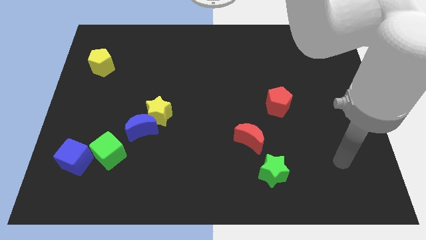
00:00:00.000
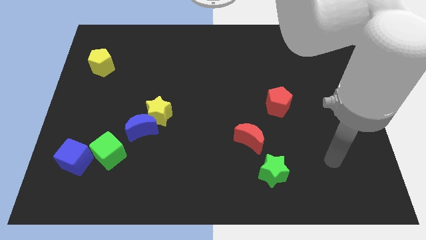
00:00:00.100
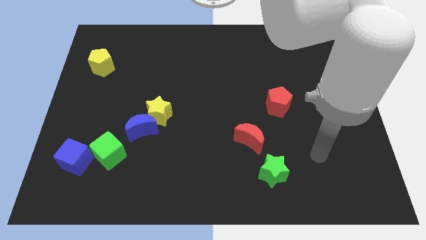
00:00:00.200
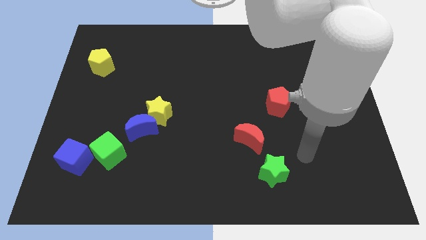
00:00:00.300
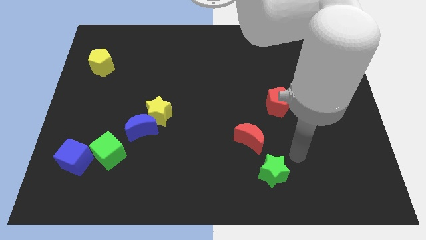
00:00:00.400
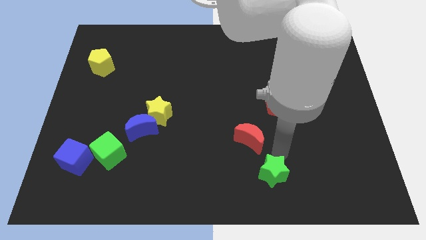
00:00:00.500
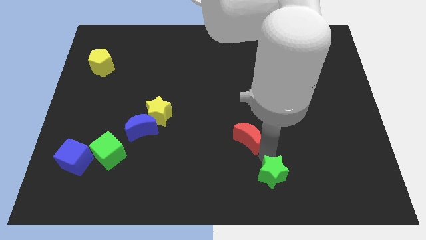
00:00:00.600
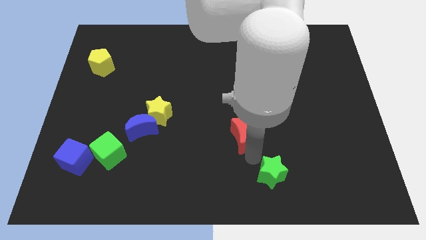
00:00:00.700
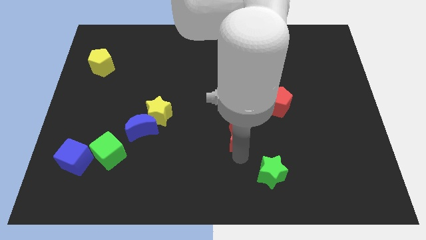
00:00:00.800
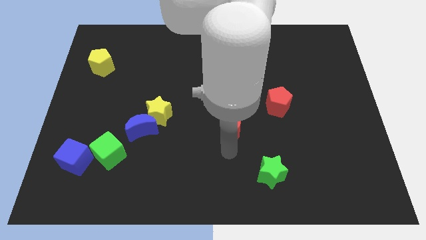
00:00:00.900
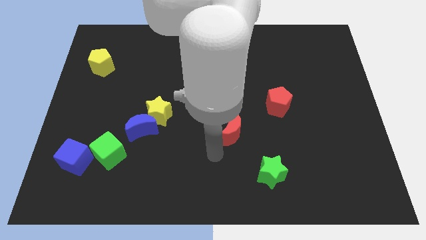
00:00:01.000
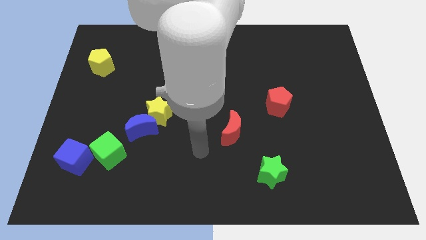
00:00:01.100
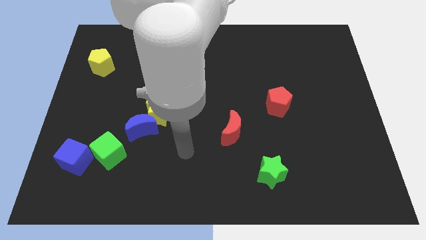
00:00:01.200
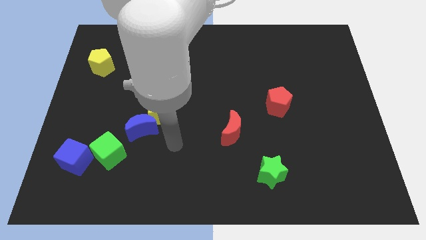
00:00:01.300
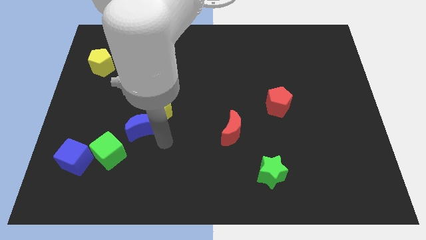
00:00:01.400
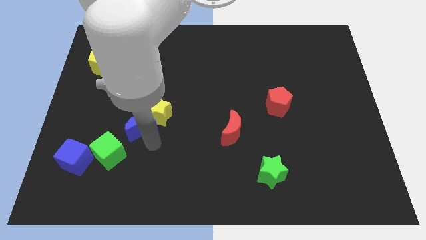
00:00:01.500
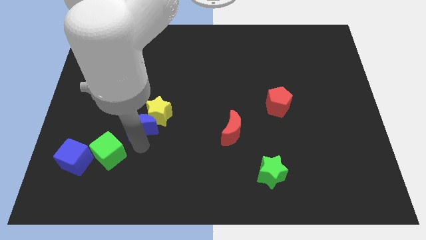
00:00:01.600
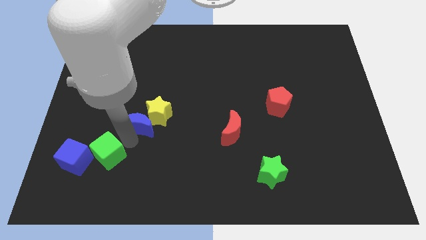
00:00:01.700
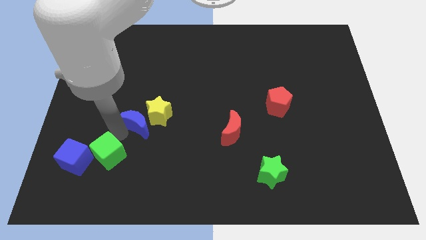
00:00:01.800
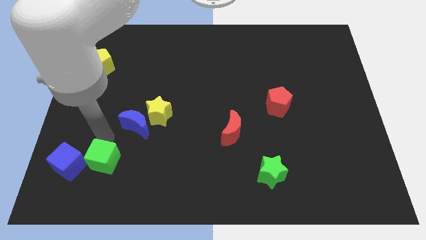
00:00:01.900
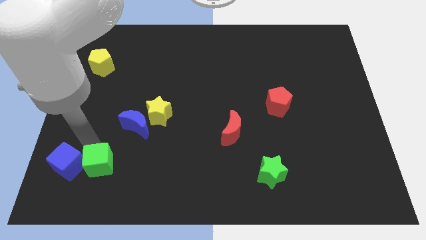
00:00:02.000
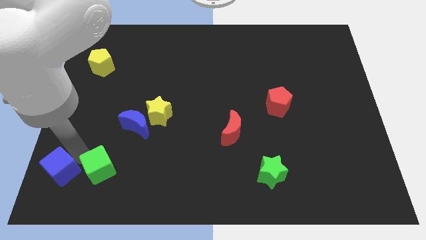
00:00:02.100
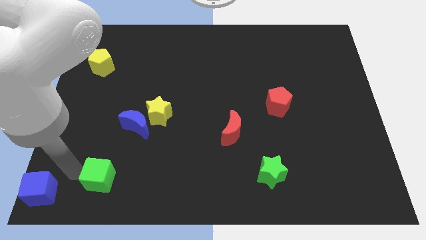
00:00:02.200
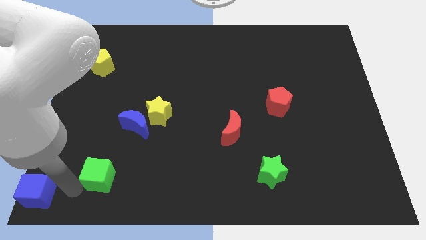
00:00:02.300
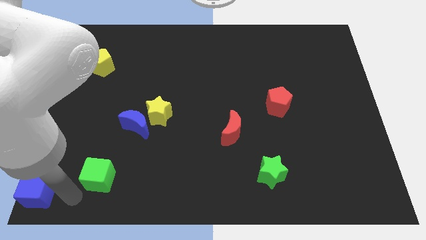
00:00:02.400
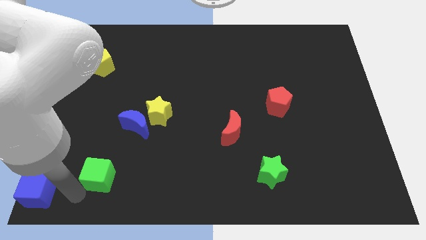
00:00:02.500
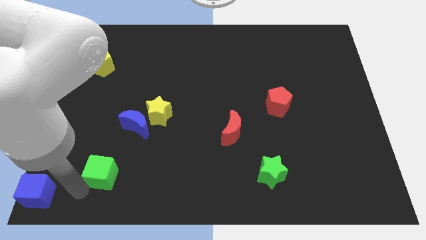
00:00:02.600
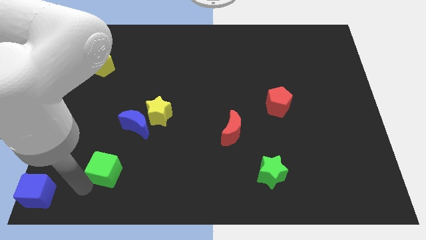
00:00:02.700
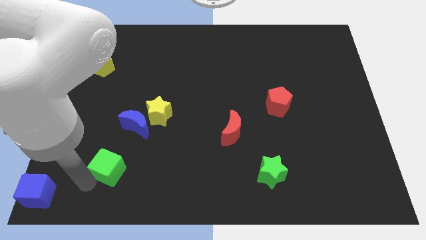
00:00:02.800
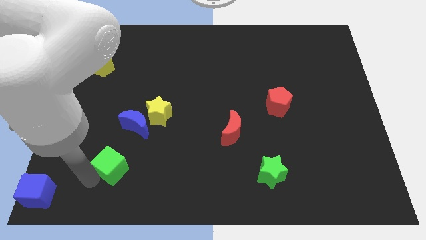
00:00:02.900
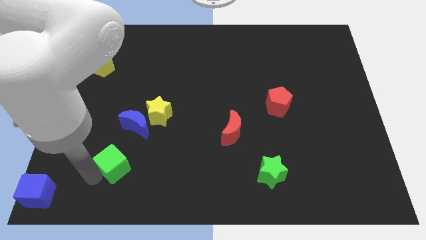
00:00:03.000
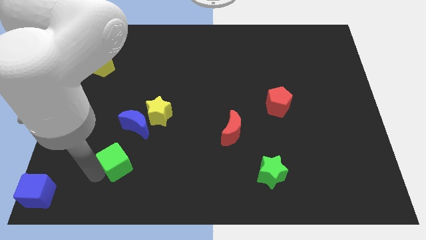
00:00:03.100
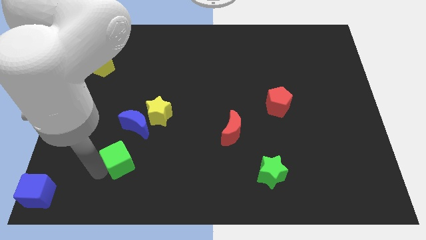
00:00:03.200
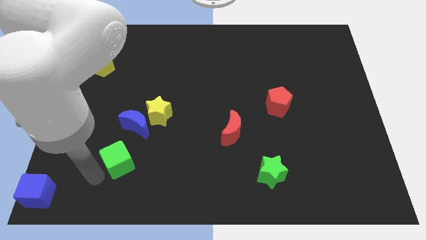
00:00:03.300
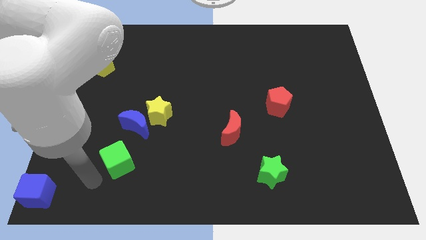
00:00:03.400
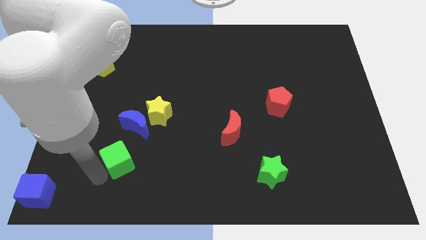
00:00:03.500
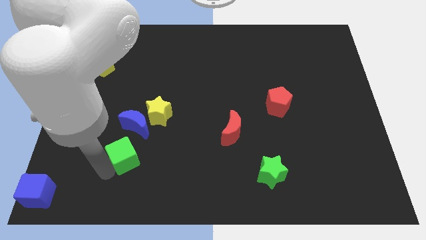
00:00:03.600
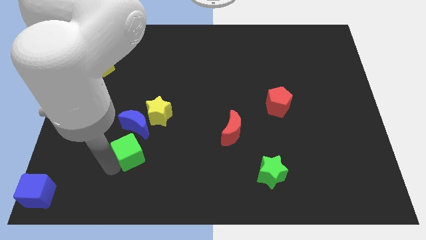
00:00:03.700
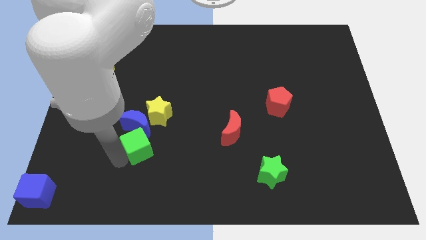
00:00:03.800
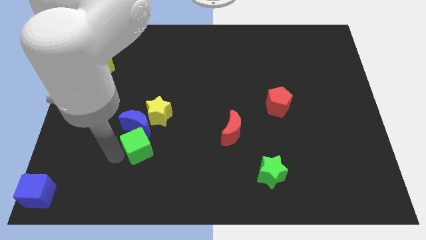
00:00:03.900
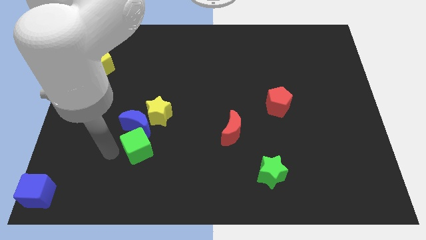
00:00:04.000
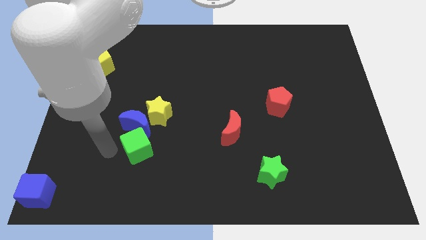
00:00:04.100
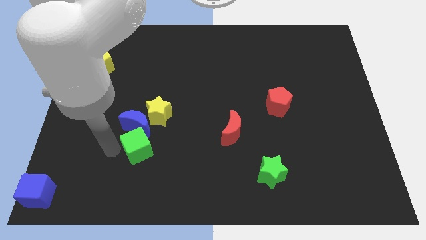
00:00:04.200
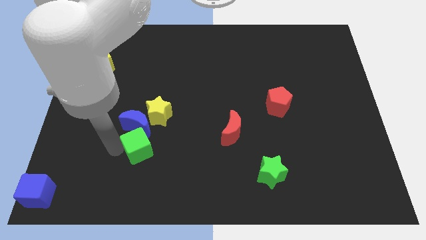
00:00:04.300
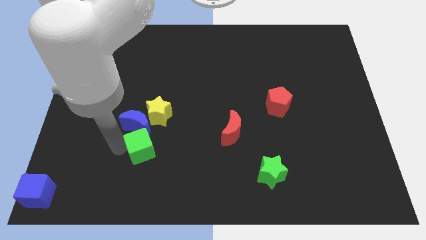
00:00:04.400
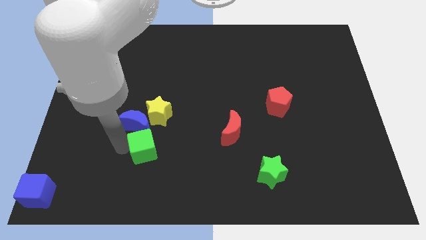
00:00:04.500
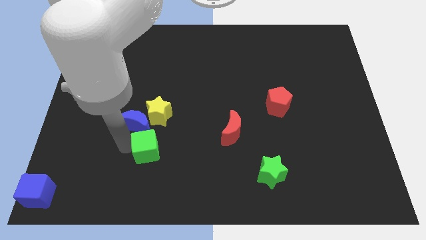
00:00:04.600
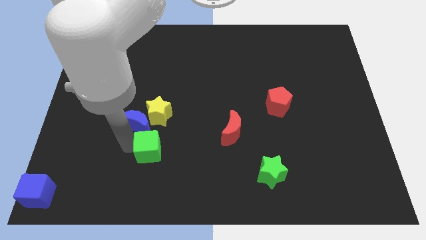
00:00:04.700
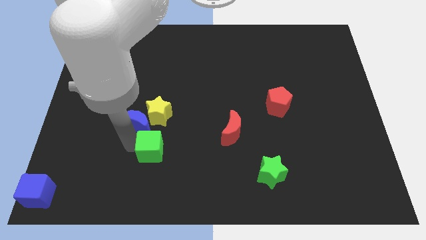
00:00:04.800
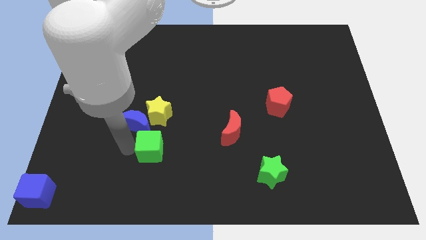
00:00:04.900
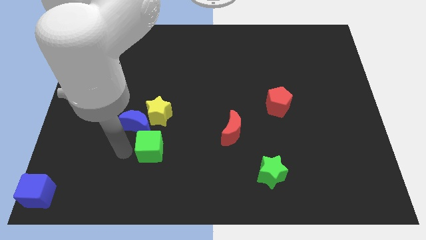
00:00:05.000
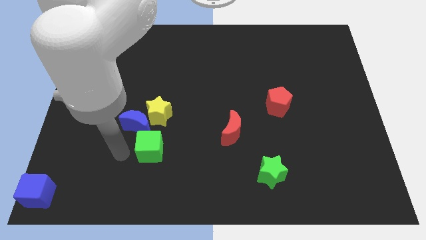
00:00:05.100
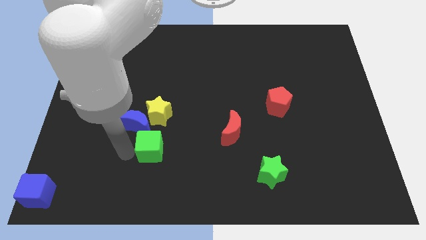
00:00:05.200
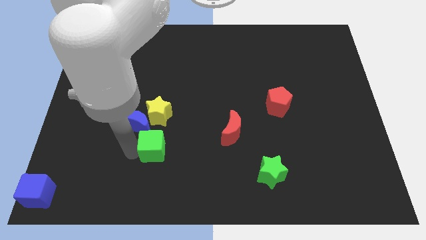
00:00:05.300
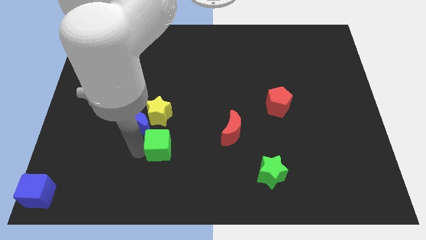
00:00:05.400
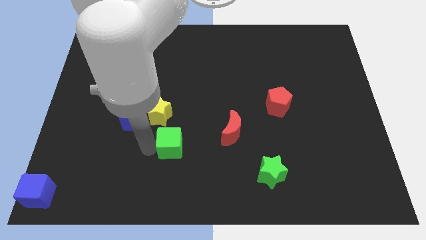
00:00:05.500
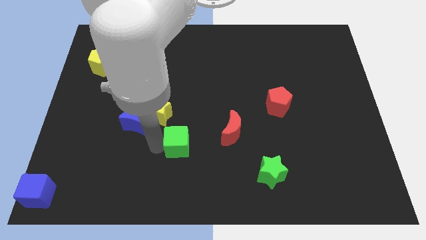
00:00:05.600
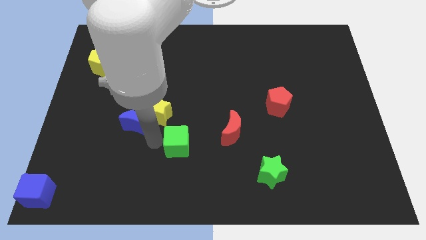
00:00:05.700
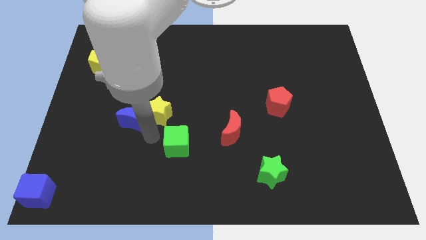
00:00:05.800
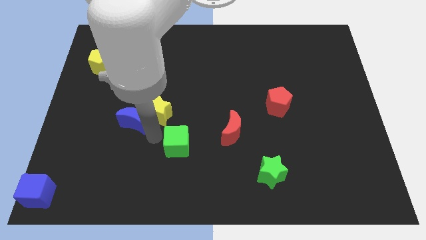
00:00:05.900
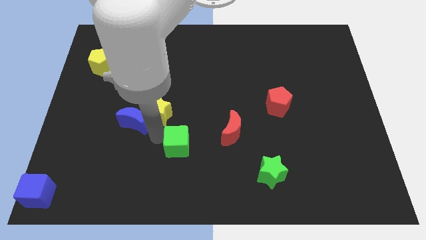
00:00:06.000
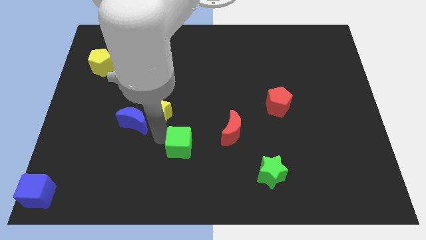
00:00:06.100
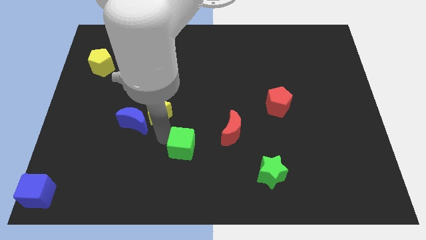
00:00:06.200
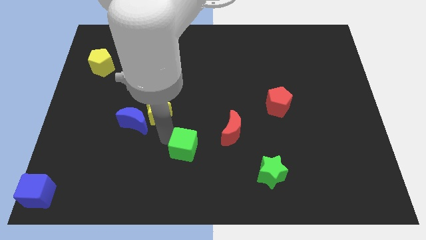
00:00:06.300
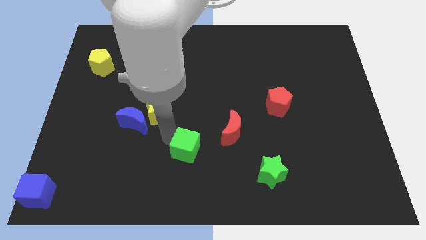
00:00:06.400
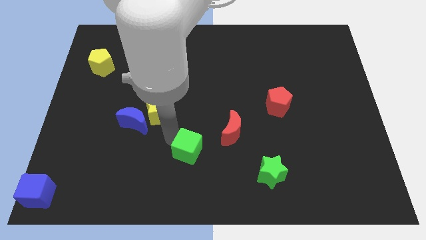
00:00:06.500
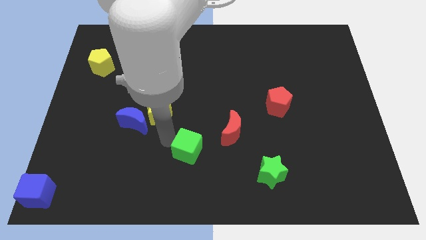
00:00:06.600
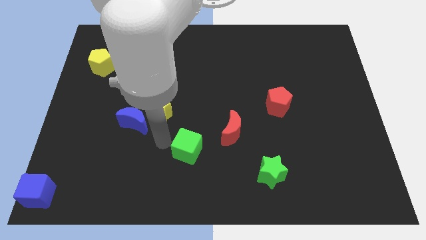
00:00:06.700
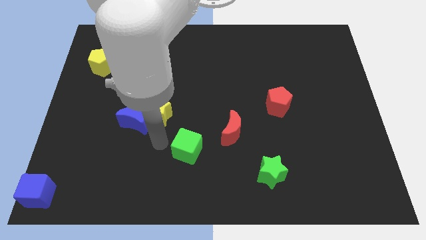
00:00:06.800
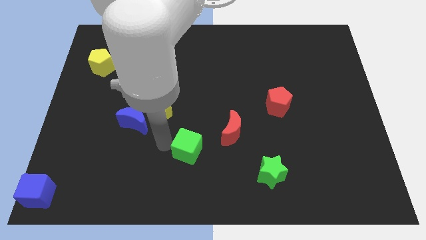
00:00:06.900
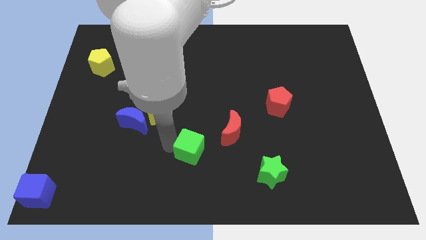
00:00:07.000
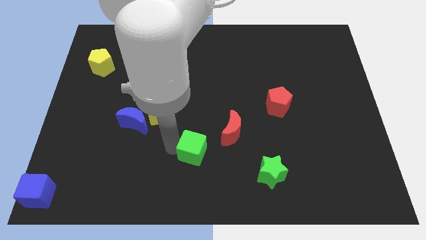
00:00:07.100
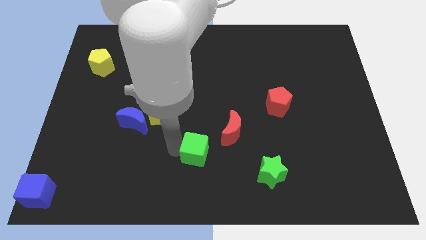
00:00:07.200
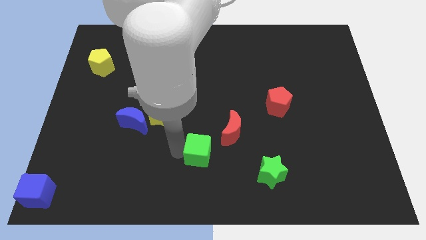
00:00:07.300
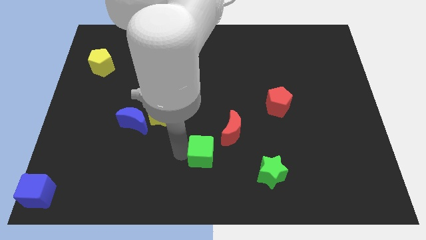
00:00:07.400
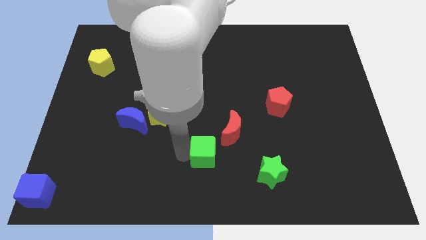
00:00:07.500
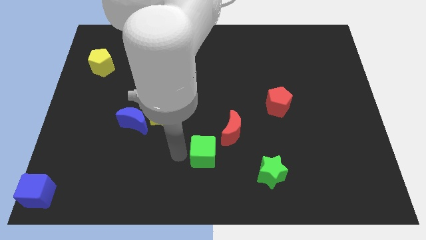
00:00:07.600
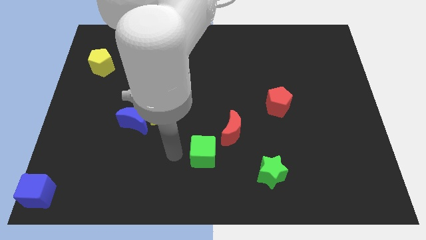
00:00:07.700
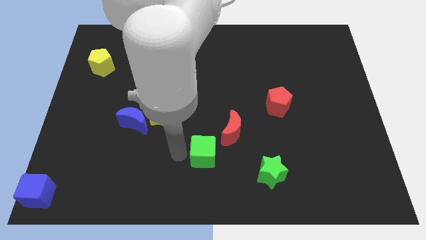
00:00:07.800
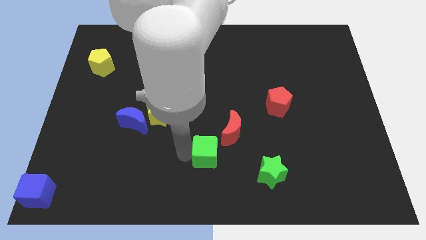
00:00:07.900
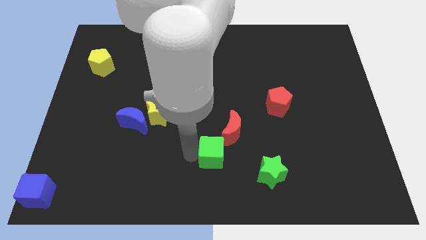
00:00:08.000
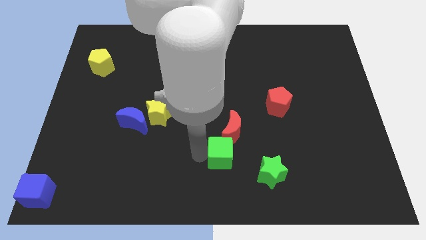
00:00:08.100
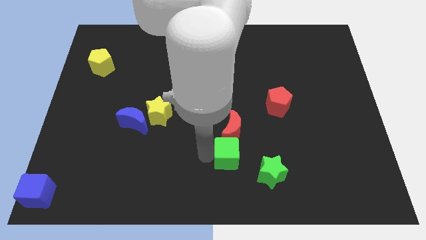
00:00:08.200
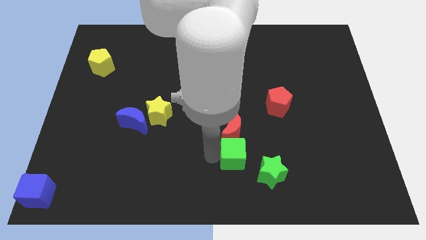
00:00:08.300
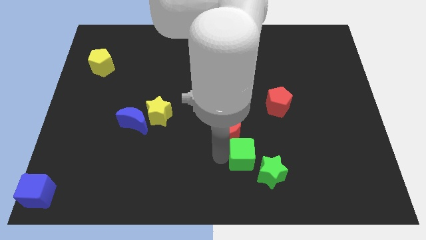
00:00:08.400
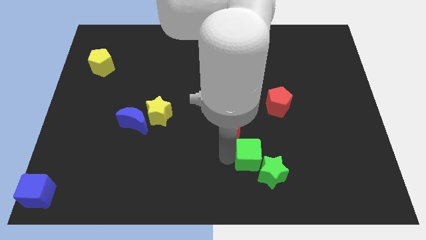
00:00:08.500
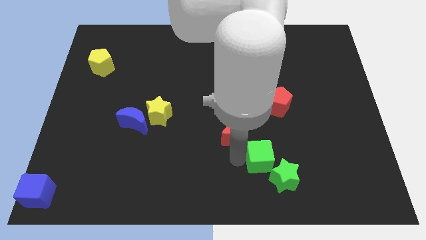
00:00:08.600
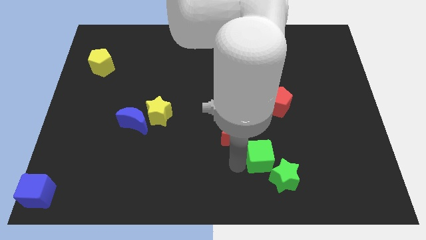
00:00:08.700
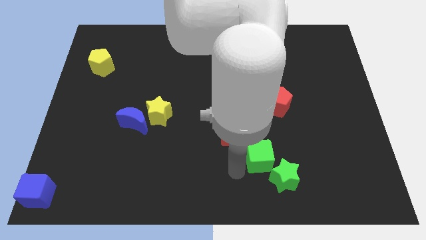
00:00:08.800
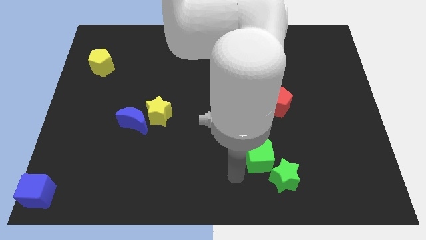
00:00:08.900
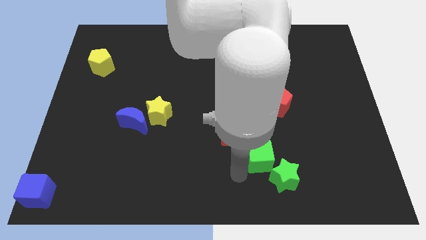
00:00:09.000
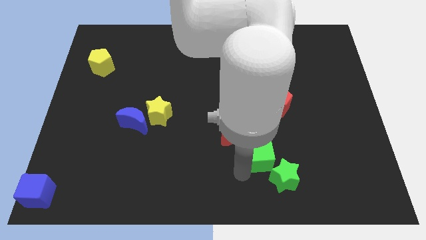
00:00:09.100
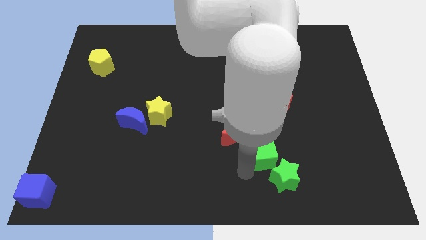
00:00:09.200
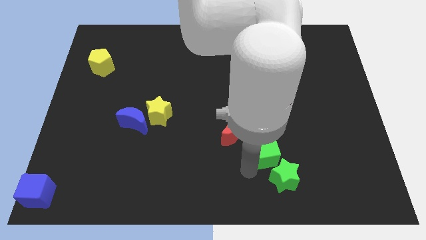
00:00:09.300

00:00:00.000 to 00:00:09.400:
push the green cube to the bottom of the red pentagon
